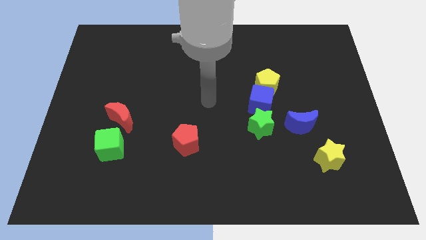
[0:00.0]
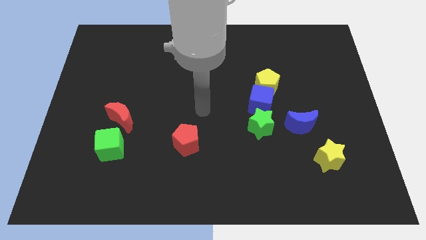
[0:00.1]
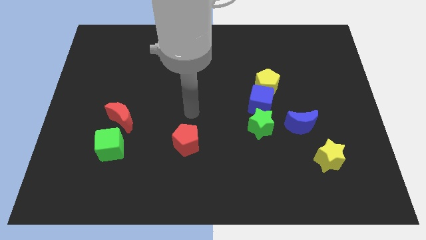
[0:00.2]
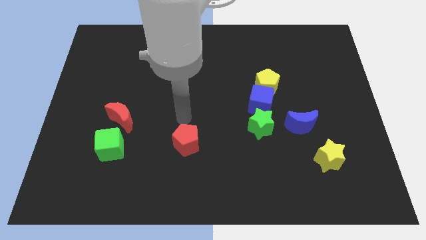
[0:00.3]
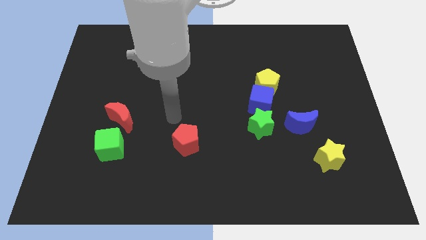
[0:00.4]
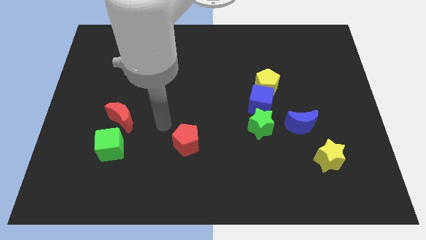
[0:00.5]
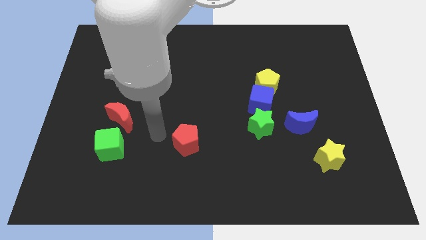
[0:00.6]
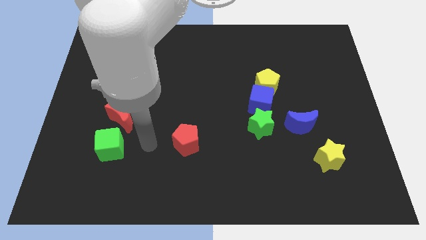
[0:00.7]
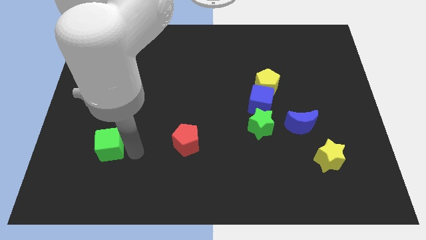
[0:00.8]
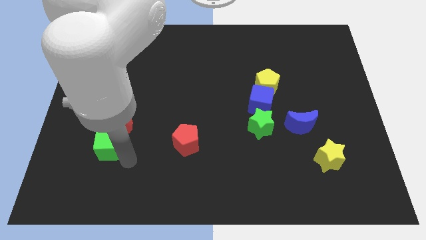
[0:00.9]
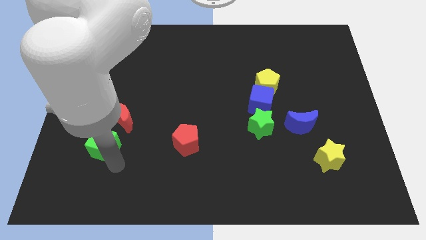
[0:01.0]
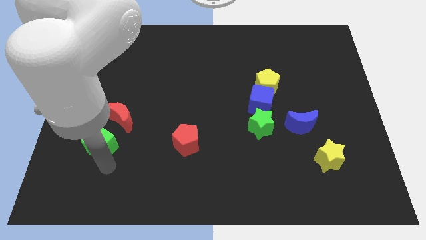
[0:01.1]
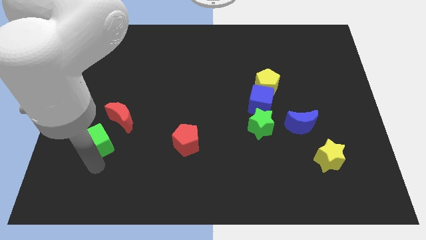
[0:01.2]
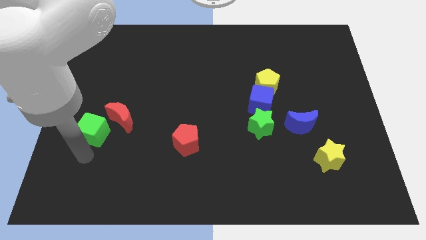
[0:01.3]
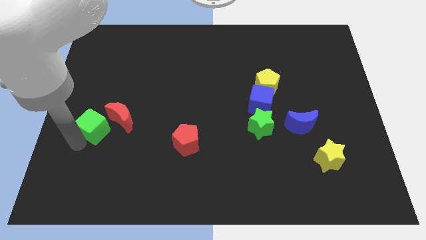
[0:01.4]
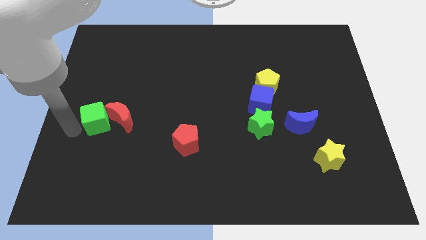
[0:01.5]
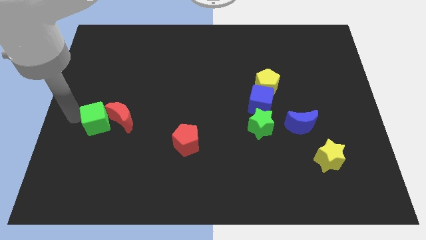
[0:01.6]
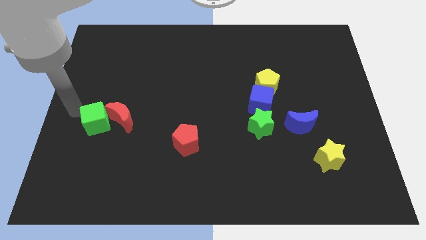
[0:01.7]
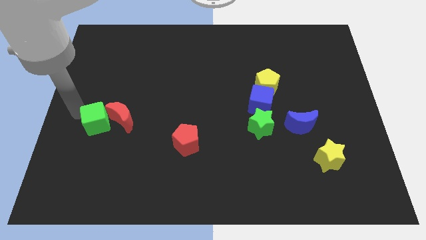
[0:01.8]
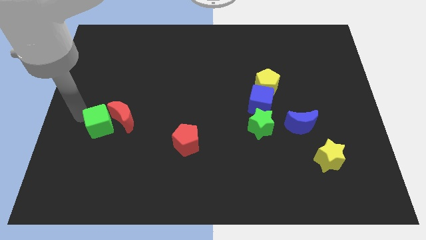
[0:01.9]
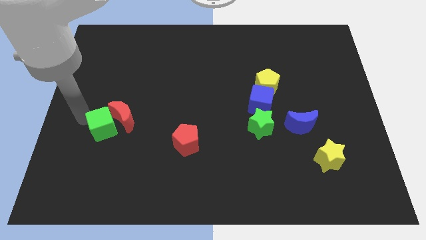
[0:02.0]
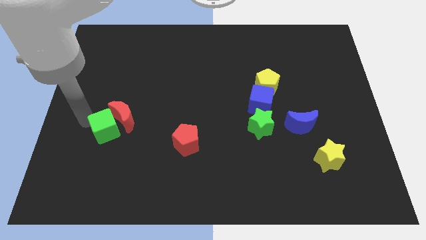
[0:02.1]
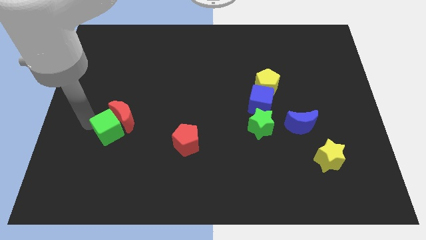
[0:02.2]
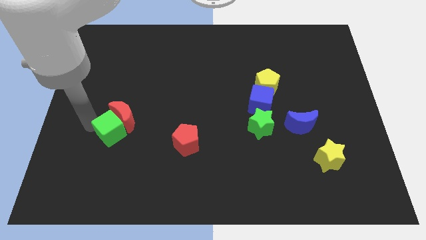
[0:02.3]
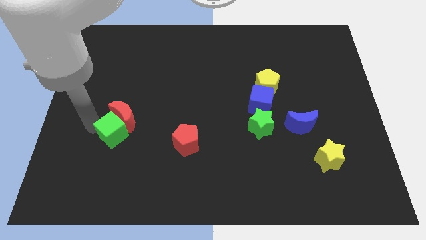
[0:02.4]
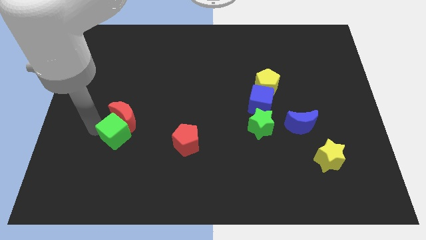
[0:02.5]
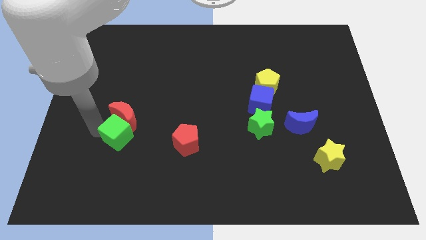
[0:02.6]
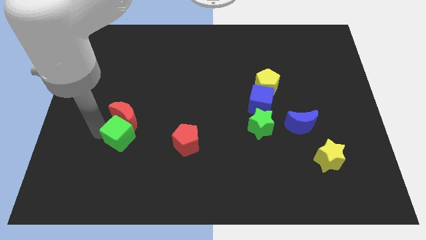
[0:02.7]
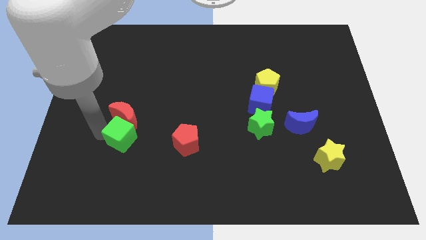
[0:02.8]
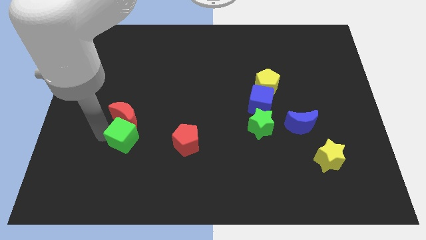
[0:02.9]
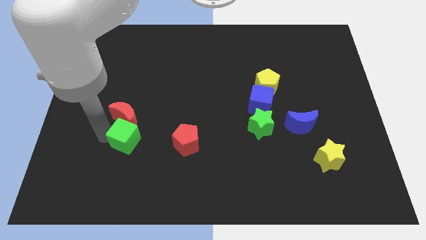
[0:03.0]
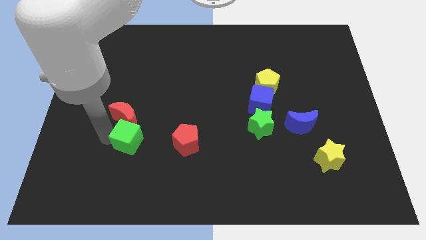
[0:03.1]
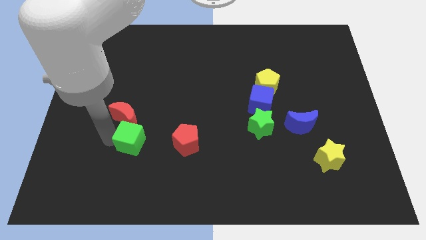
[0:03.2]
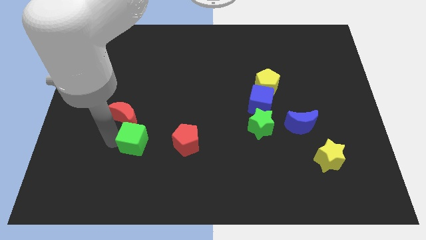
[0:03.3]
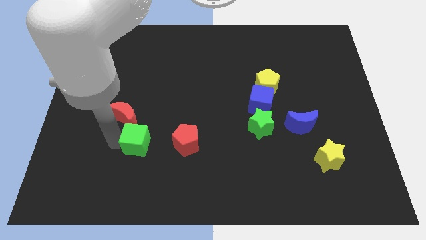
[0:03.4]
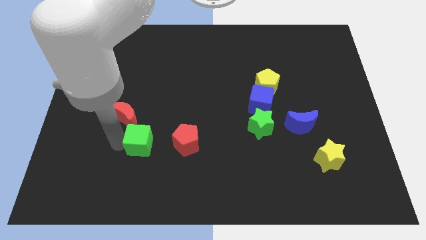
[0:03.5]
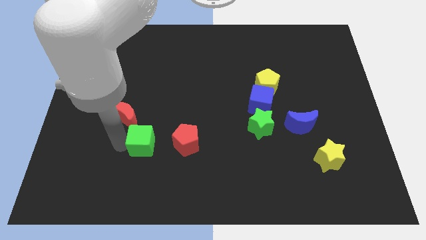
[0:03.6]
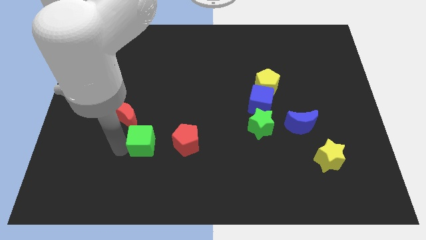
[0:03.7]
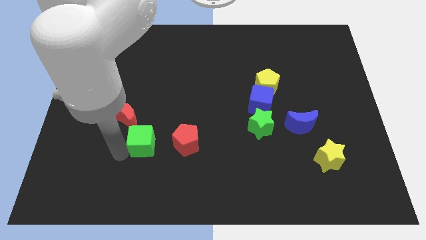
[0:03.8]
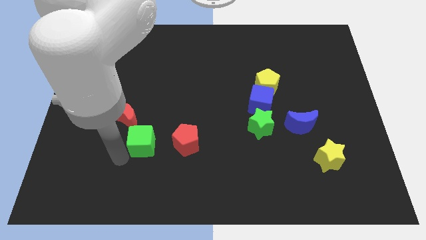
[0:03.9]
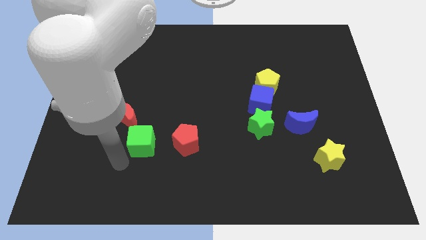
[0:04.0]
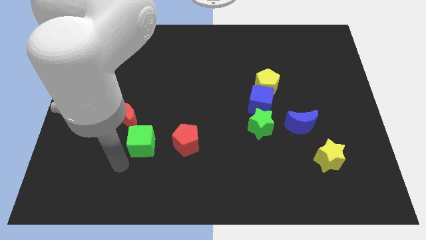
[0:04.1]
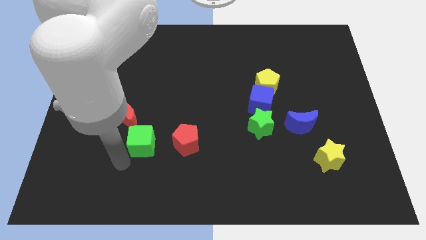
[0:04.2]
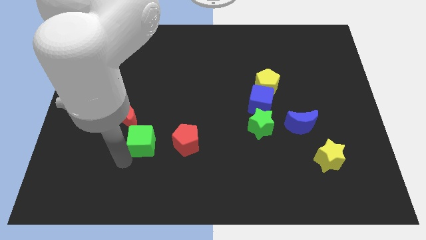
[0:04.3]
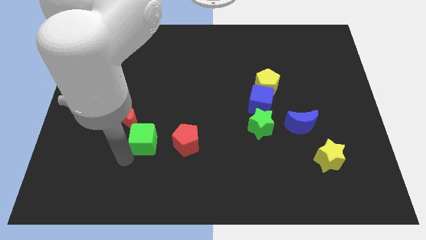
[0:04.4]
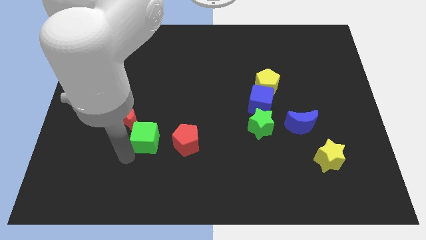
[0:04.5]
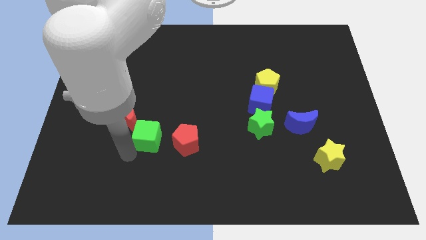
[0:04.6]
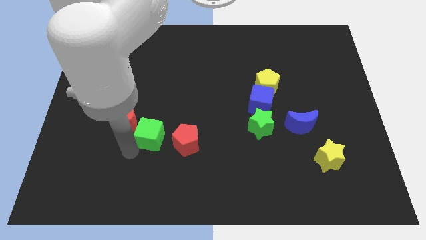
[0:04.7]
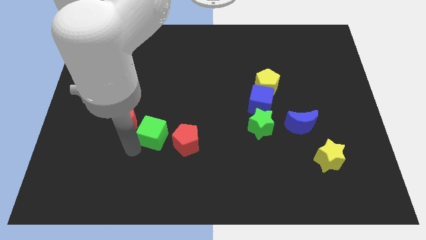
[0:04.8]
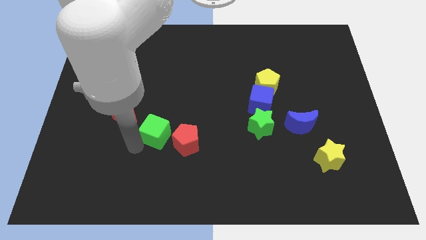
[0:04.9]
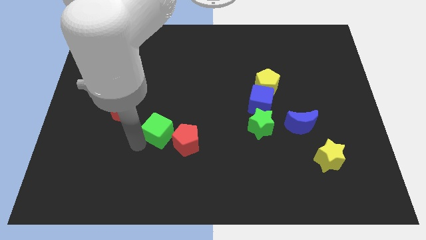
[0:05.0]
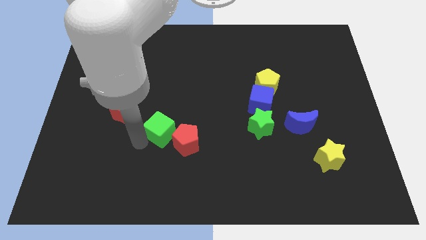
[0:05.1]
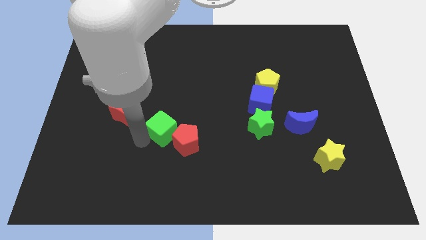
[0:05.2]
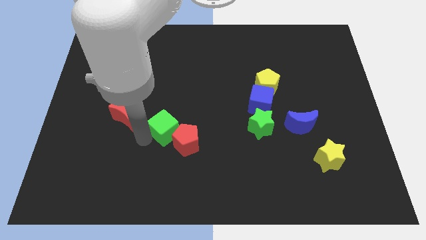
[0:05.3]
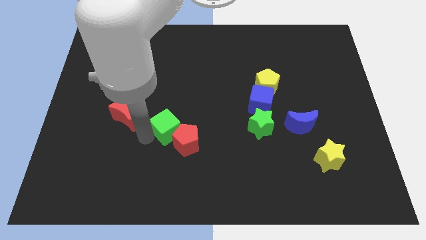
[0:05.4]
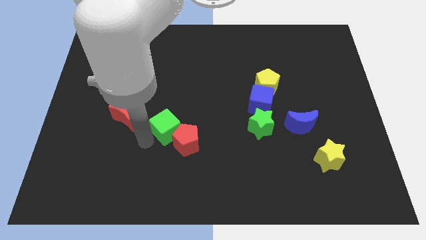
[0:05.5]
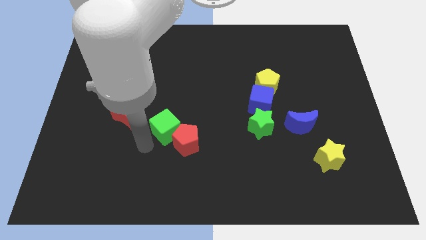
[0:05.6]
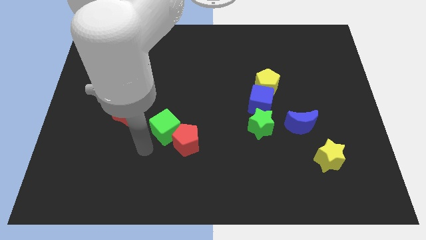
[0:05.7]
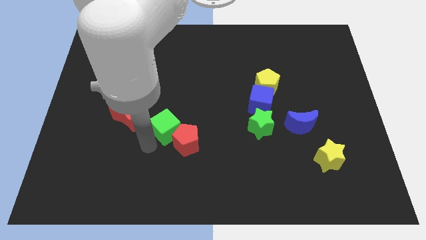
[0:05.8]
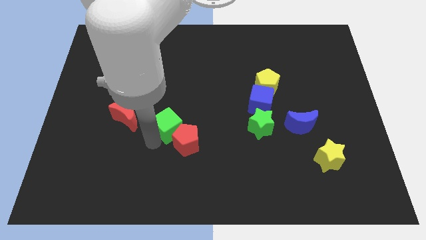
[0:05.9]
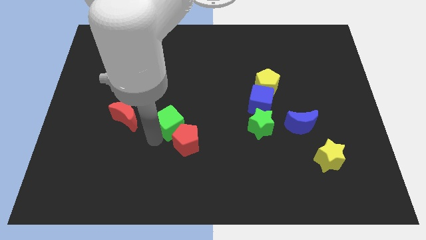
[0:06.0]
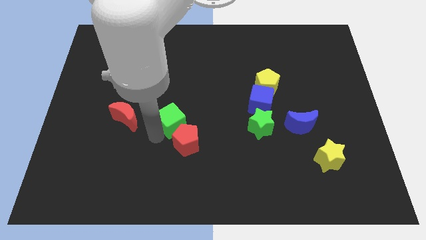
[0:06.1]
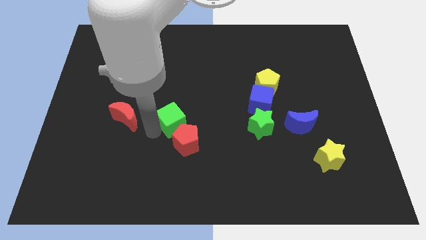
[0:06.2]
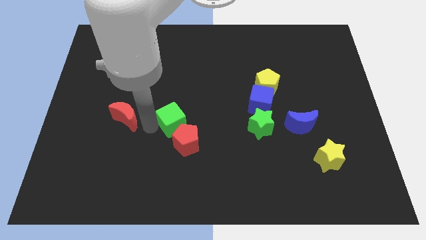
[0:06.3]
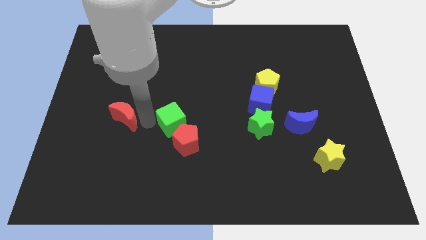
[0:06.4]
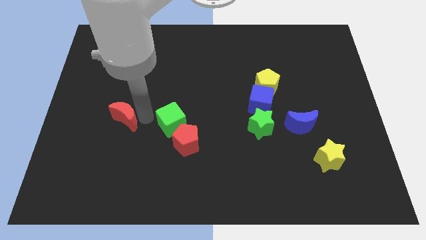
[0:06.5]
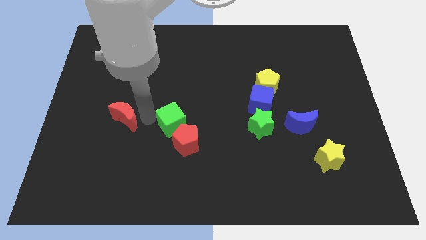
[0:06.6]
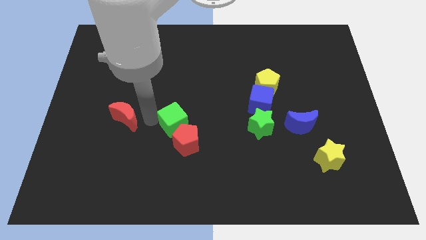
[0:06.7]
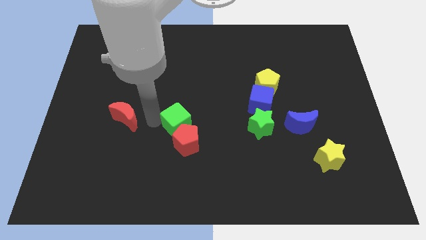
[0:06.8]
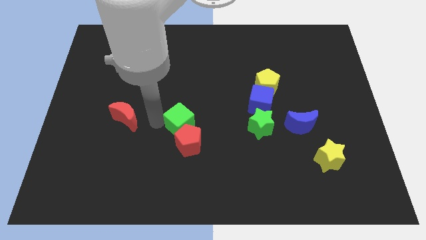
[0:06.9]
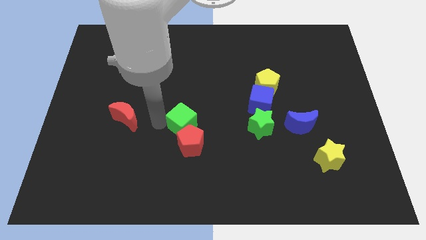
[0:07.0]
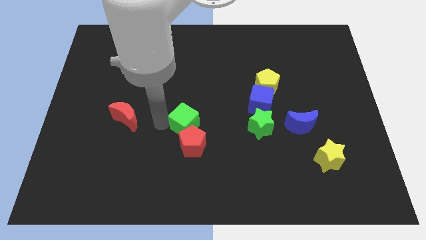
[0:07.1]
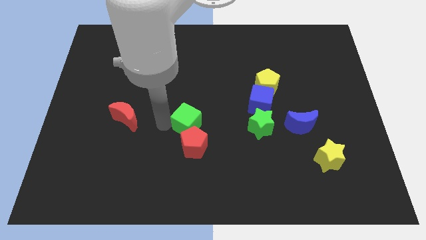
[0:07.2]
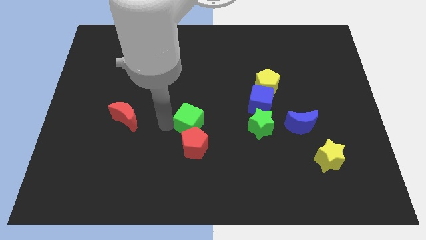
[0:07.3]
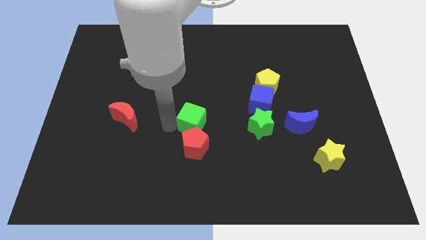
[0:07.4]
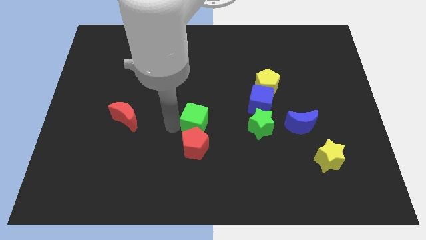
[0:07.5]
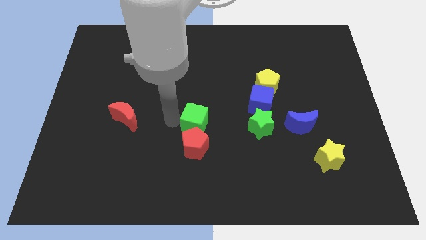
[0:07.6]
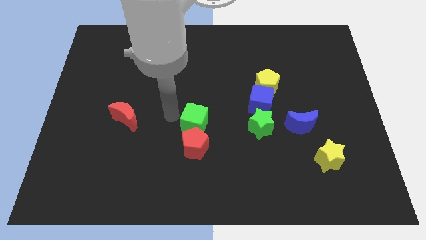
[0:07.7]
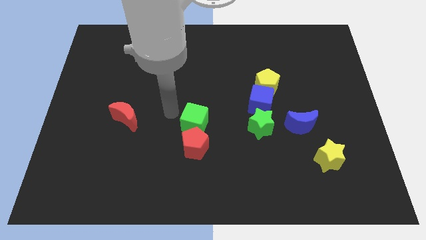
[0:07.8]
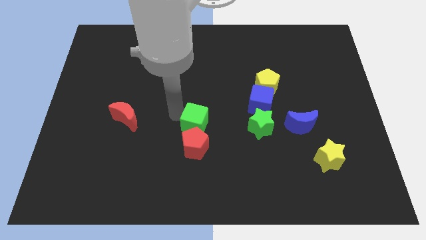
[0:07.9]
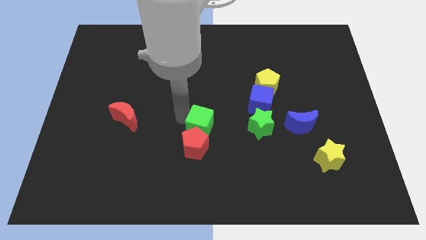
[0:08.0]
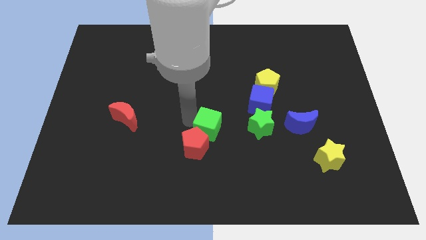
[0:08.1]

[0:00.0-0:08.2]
move the green cube right

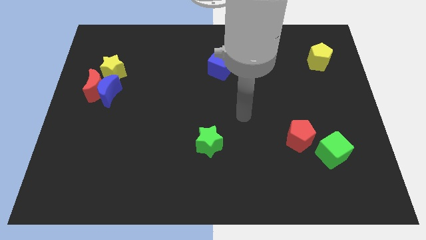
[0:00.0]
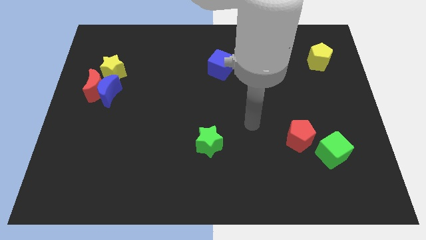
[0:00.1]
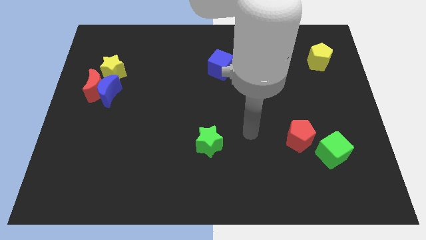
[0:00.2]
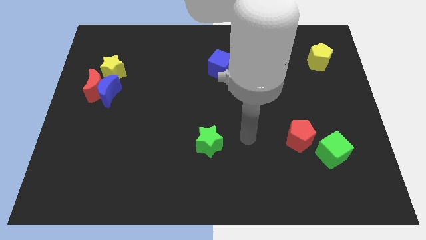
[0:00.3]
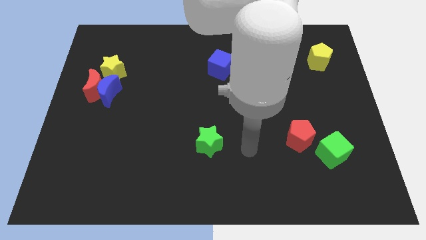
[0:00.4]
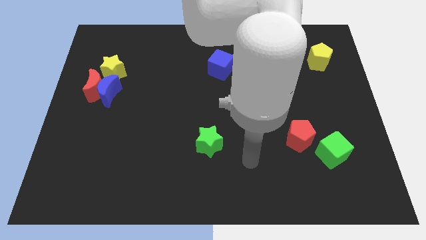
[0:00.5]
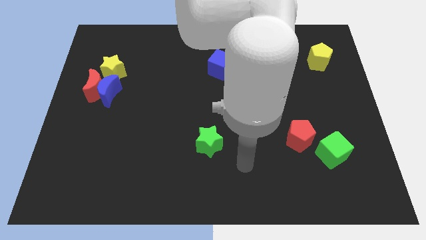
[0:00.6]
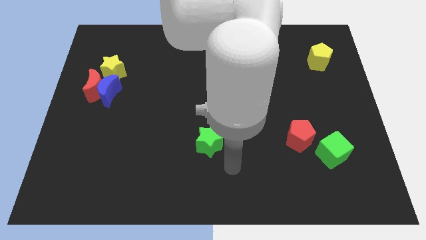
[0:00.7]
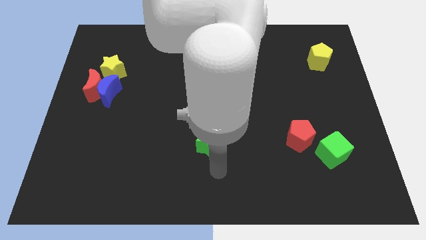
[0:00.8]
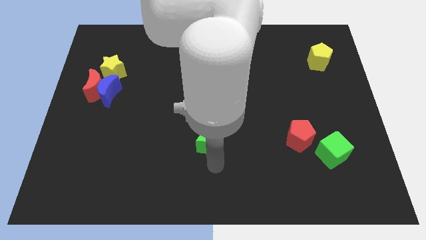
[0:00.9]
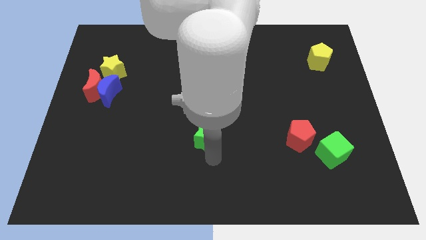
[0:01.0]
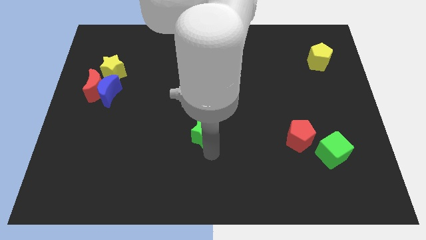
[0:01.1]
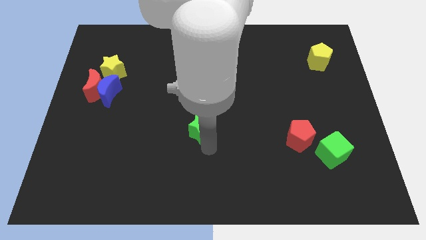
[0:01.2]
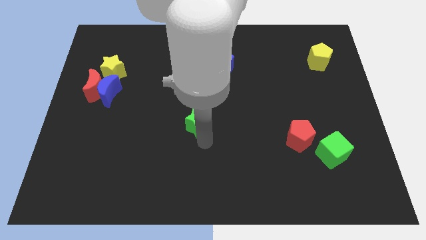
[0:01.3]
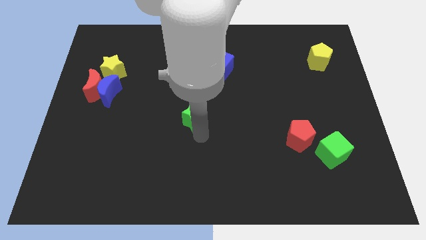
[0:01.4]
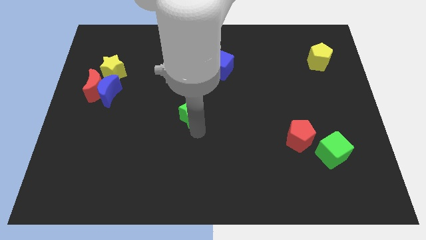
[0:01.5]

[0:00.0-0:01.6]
push the green star upwards a little bit
